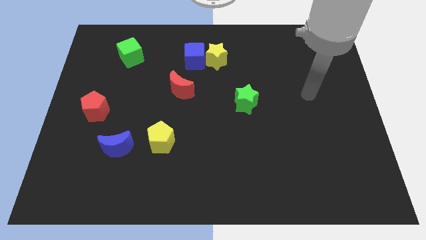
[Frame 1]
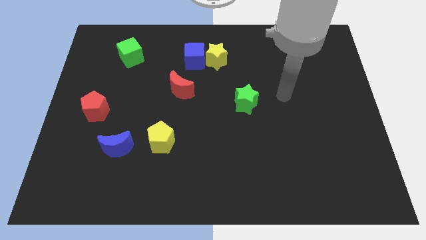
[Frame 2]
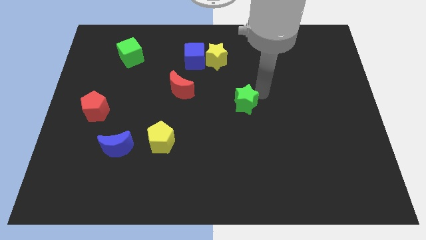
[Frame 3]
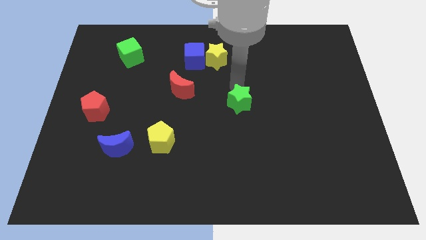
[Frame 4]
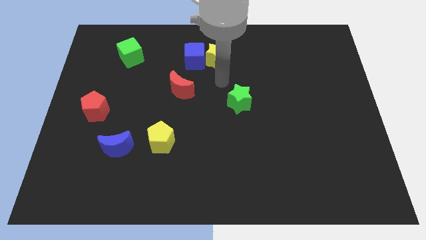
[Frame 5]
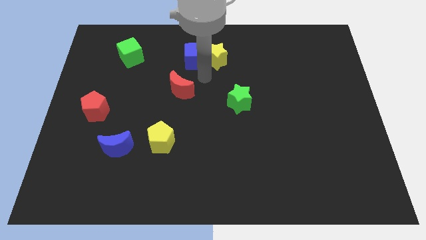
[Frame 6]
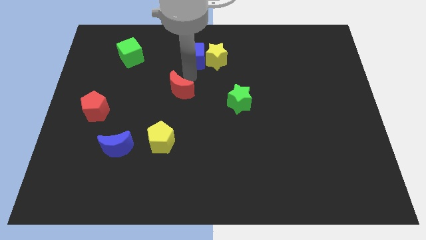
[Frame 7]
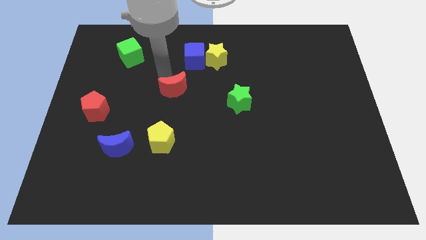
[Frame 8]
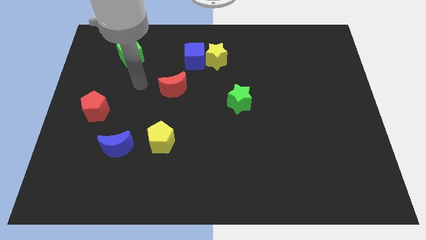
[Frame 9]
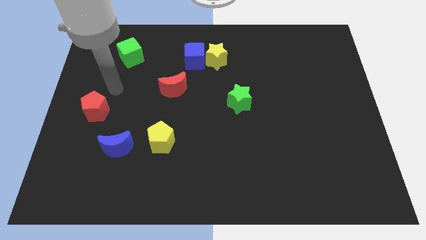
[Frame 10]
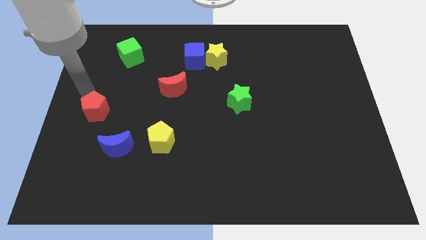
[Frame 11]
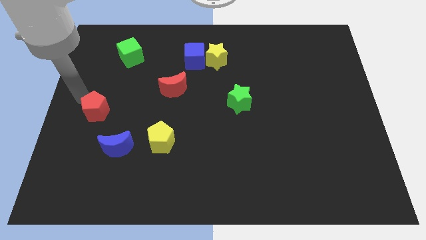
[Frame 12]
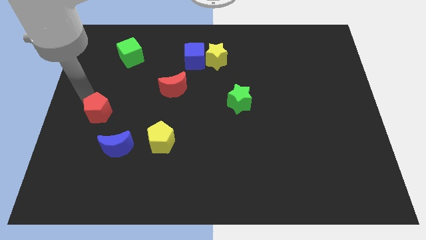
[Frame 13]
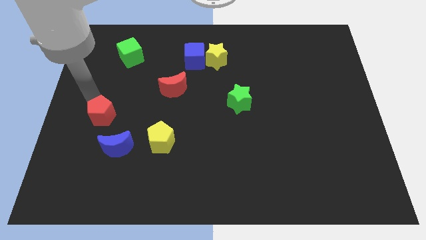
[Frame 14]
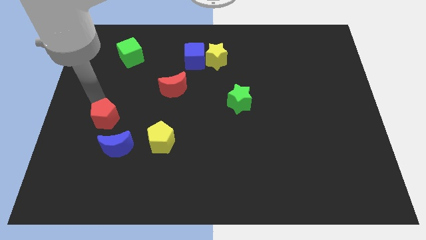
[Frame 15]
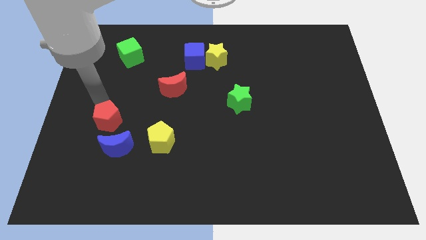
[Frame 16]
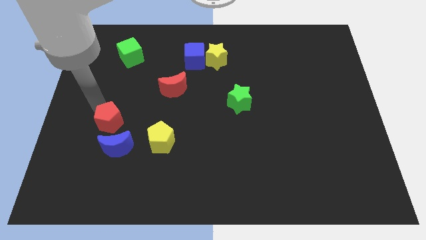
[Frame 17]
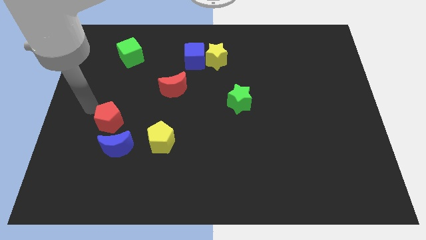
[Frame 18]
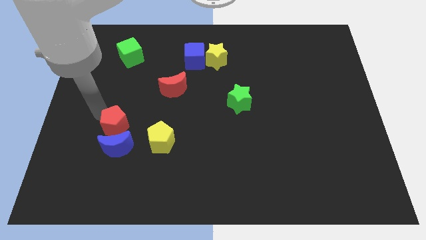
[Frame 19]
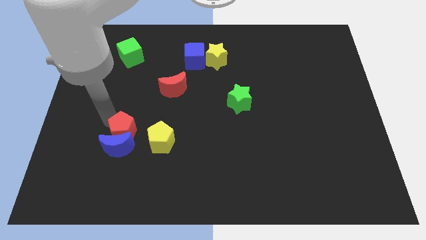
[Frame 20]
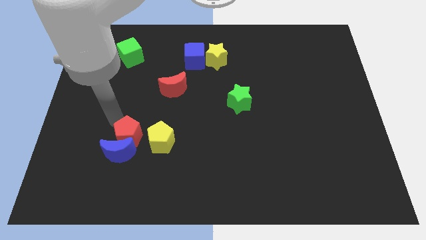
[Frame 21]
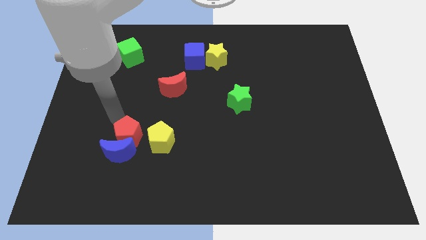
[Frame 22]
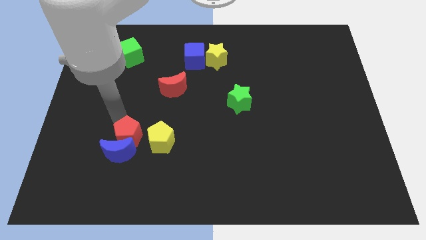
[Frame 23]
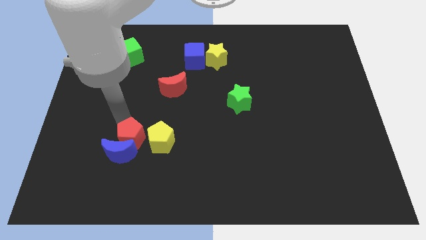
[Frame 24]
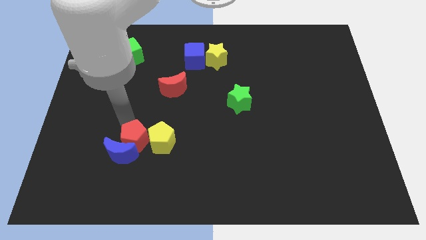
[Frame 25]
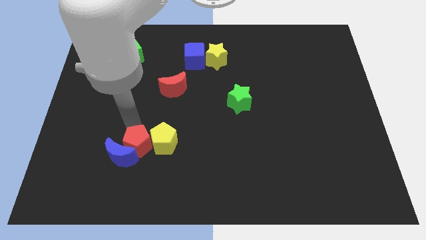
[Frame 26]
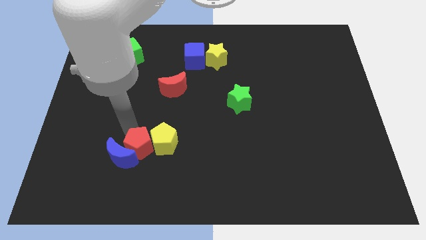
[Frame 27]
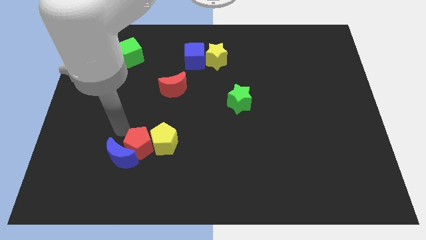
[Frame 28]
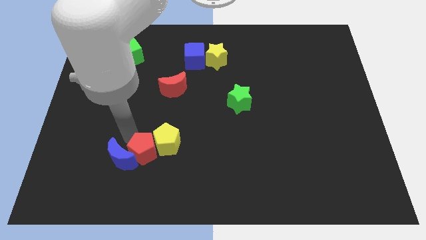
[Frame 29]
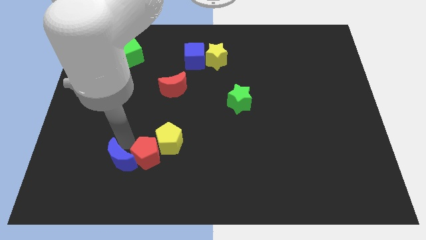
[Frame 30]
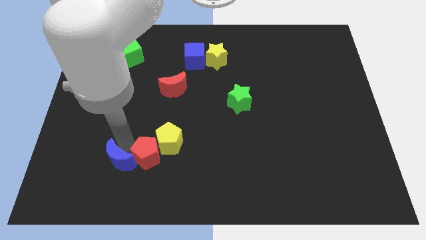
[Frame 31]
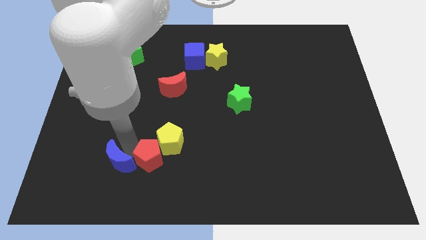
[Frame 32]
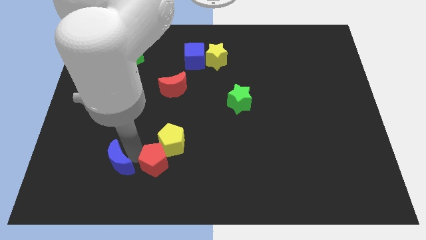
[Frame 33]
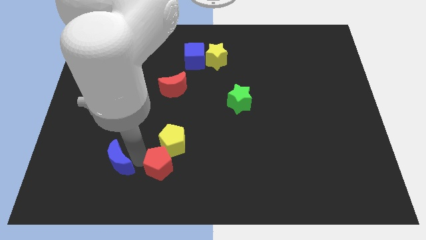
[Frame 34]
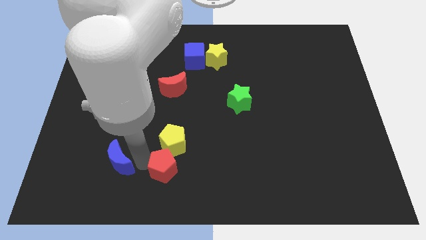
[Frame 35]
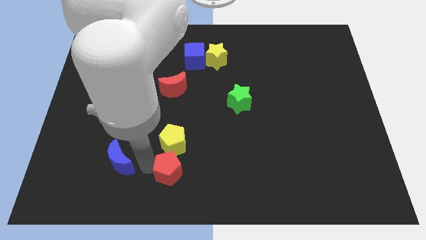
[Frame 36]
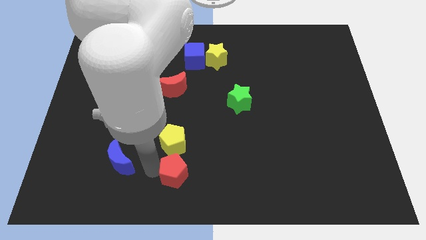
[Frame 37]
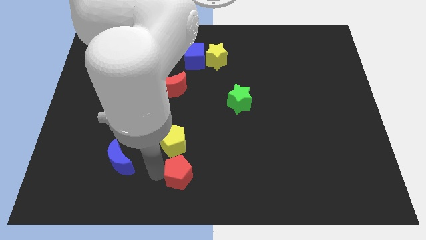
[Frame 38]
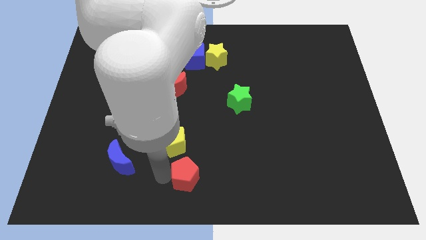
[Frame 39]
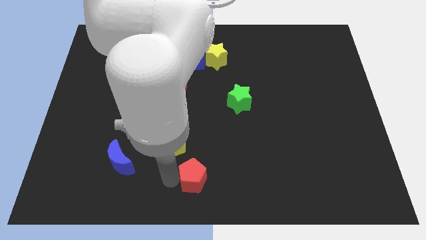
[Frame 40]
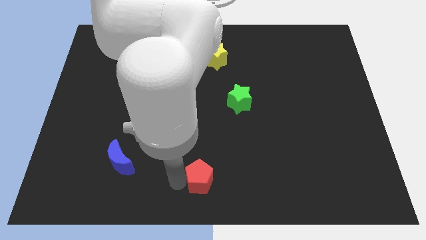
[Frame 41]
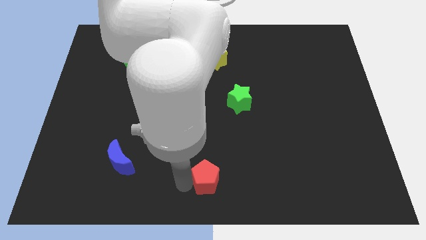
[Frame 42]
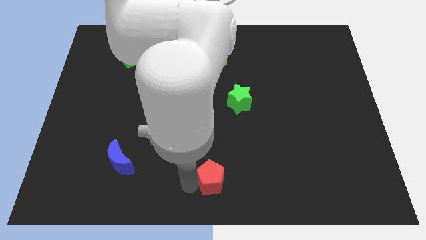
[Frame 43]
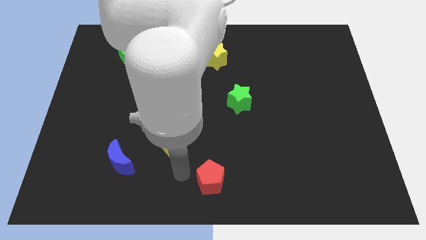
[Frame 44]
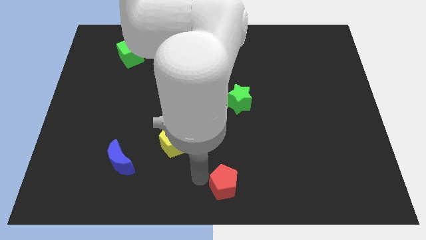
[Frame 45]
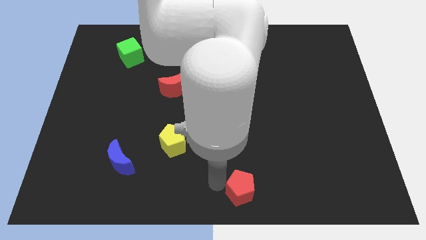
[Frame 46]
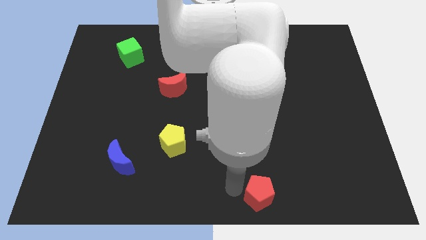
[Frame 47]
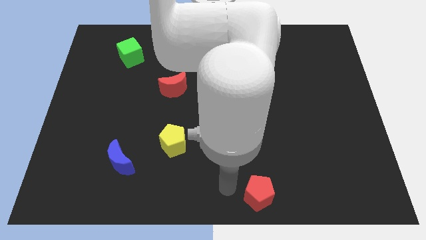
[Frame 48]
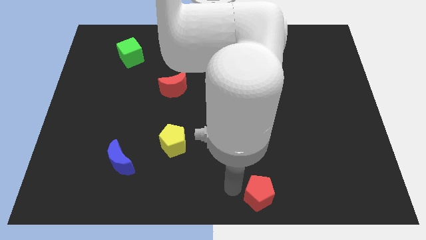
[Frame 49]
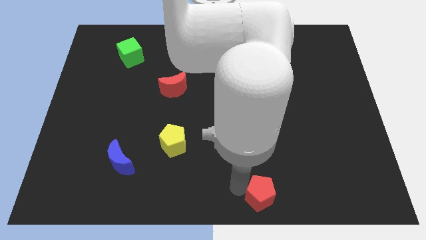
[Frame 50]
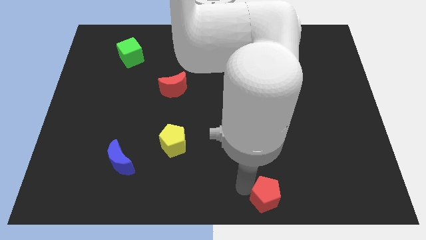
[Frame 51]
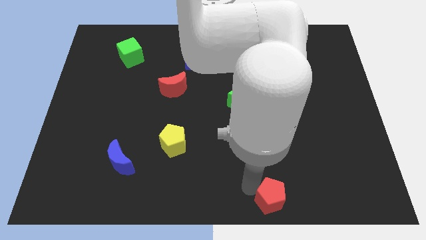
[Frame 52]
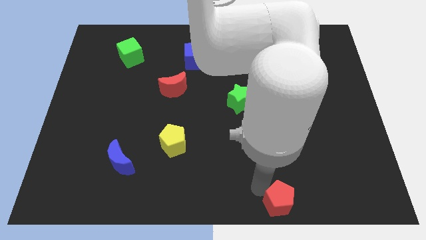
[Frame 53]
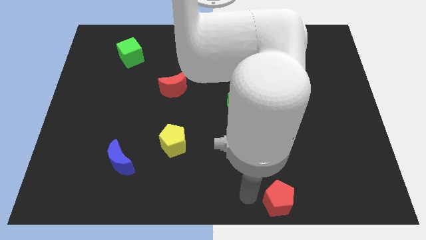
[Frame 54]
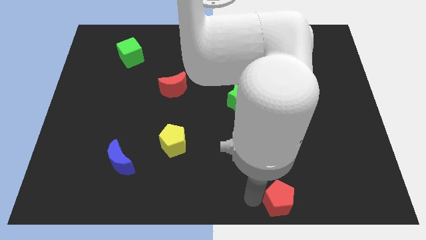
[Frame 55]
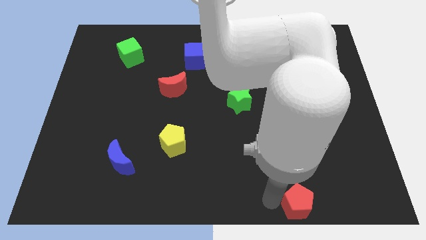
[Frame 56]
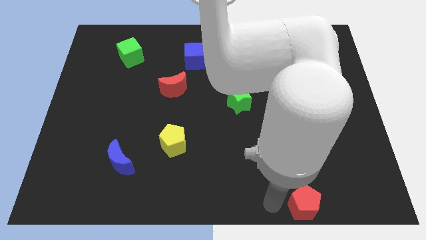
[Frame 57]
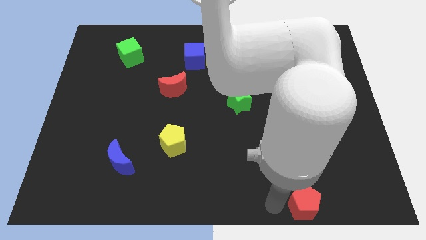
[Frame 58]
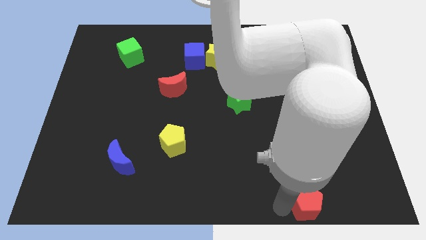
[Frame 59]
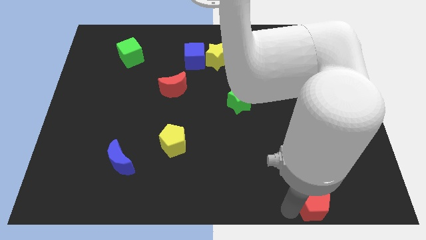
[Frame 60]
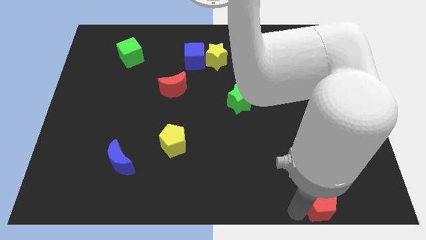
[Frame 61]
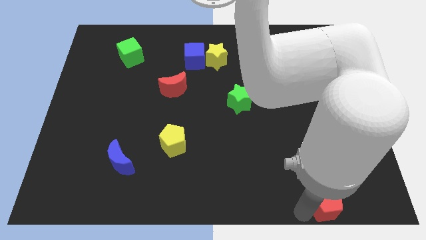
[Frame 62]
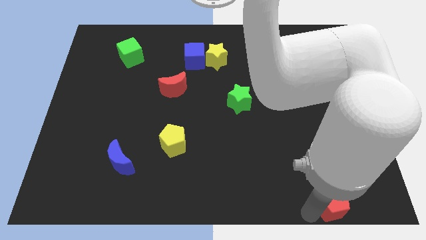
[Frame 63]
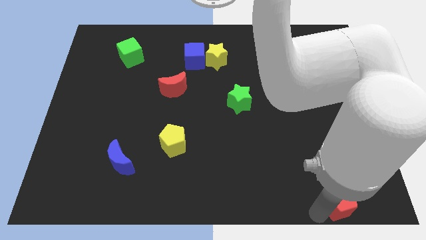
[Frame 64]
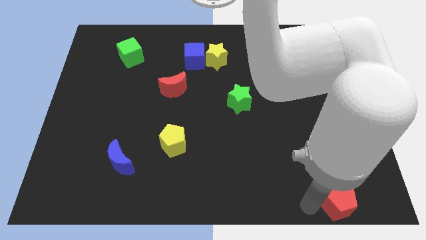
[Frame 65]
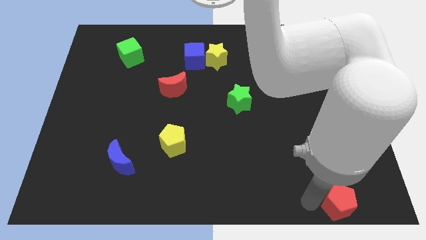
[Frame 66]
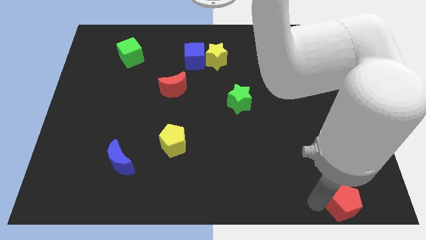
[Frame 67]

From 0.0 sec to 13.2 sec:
slide the red pentagon to the bottom right

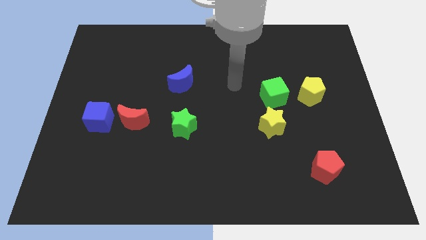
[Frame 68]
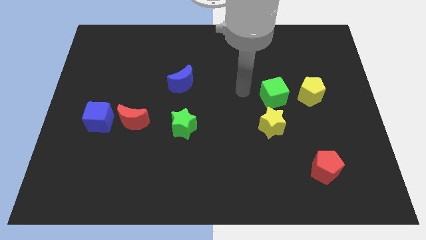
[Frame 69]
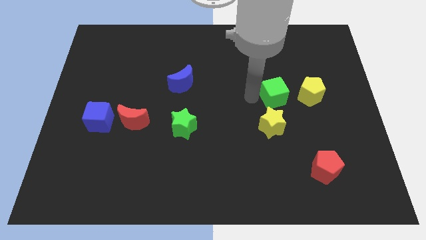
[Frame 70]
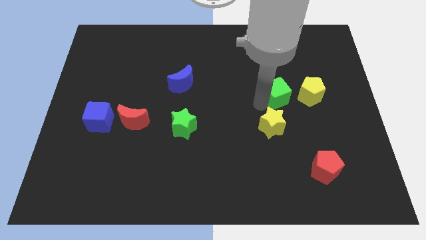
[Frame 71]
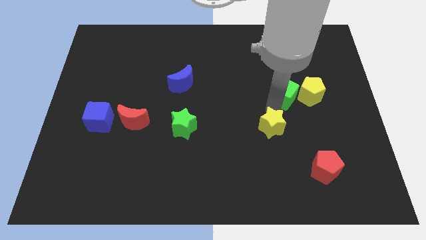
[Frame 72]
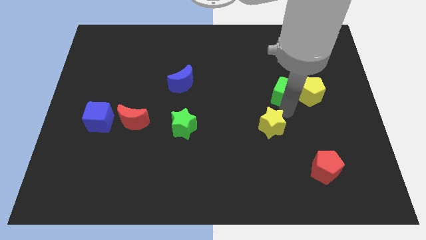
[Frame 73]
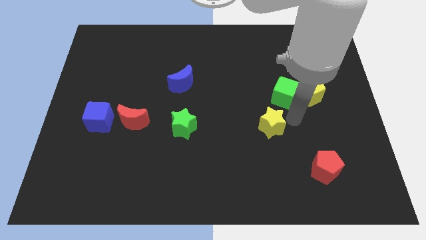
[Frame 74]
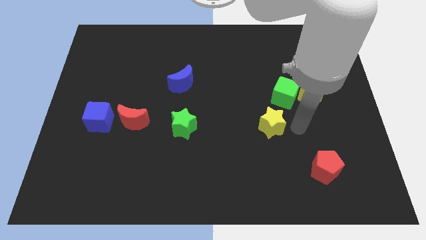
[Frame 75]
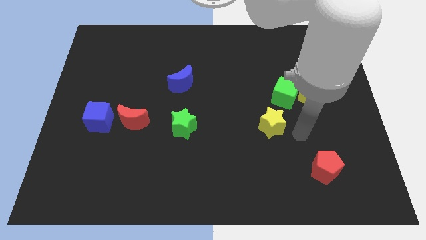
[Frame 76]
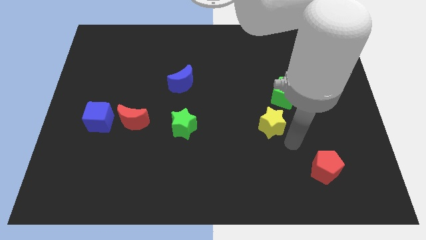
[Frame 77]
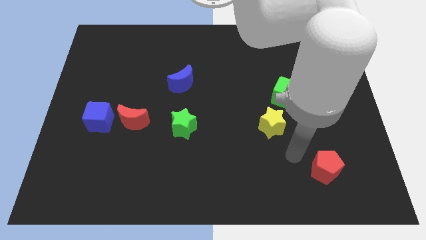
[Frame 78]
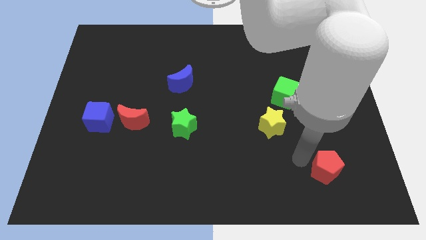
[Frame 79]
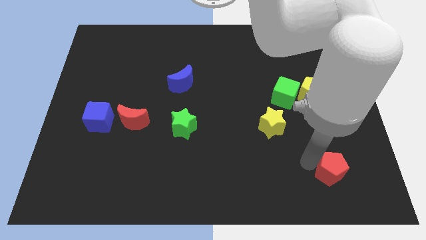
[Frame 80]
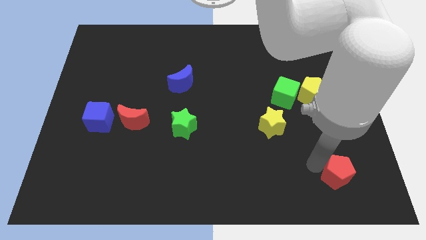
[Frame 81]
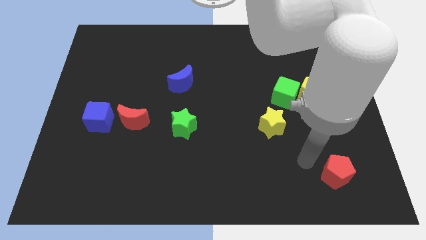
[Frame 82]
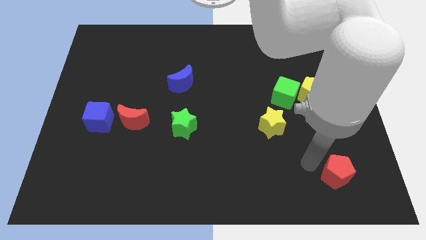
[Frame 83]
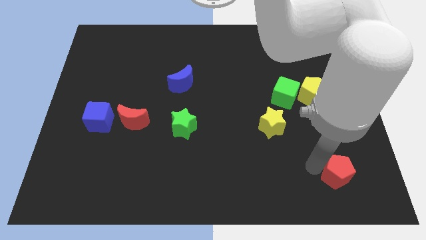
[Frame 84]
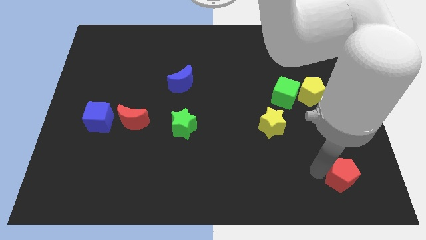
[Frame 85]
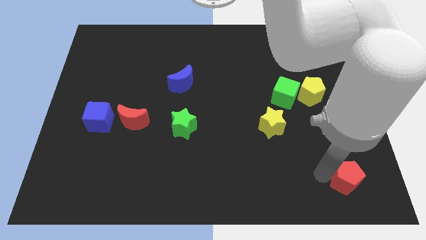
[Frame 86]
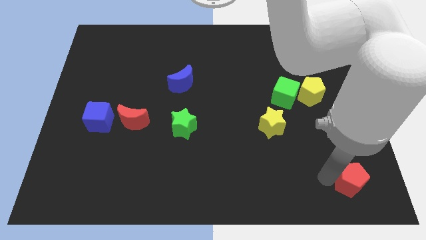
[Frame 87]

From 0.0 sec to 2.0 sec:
move the red pentagon to the lower right corner
